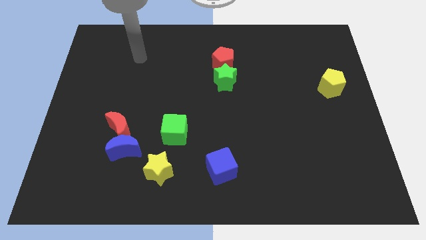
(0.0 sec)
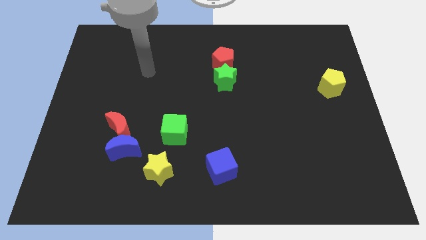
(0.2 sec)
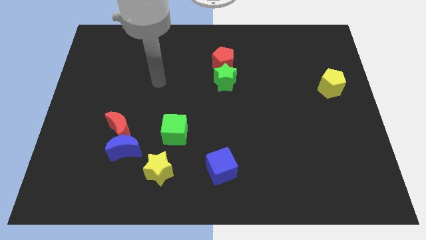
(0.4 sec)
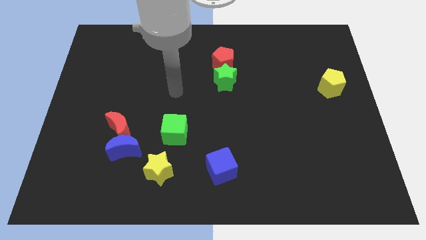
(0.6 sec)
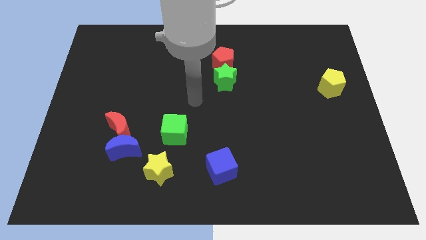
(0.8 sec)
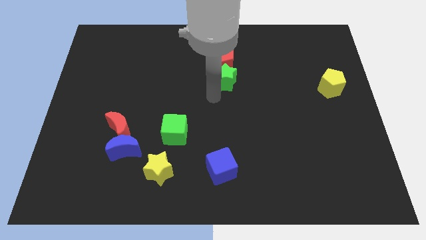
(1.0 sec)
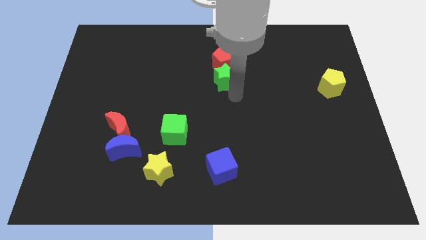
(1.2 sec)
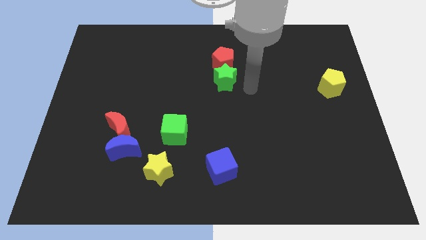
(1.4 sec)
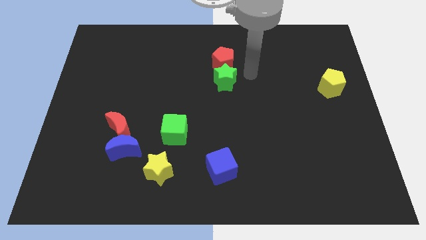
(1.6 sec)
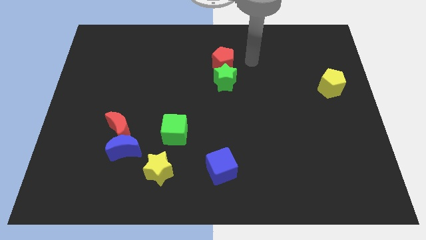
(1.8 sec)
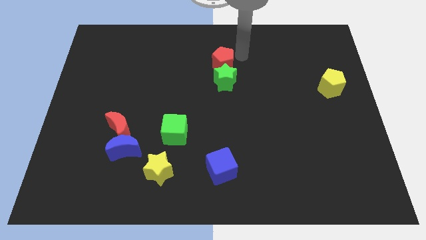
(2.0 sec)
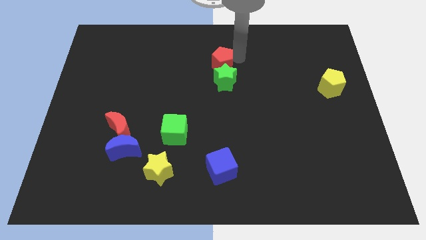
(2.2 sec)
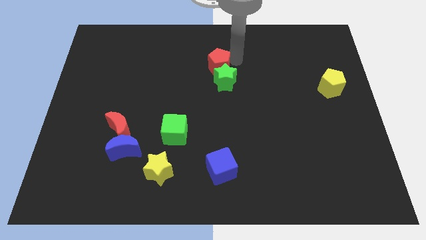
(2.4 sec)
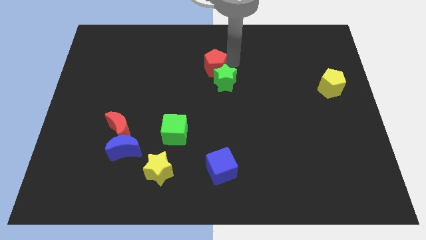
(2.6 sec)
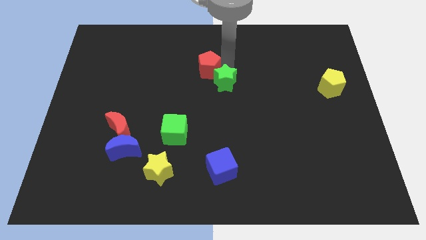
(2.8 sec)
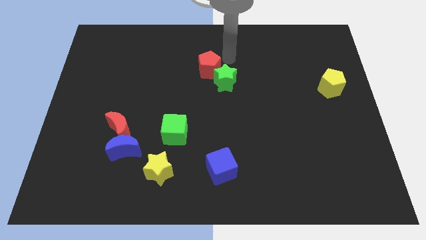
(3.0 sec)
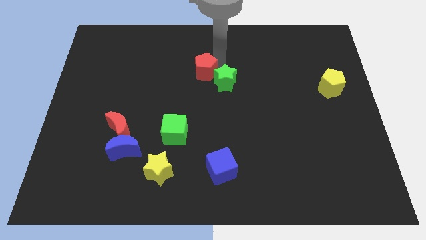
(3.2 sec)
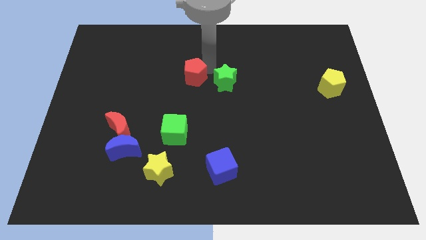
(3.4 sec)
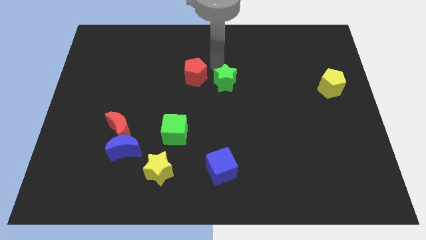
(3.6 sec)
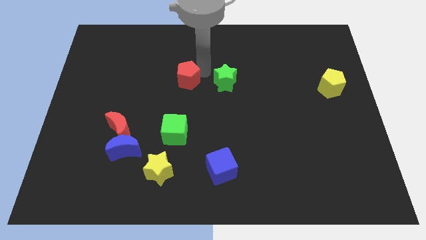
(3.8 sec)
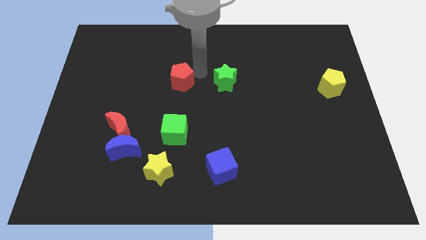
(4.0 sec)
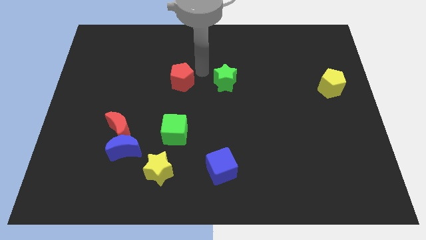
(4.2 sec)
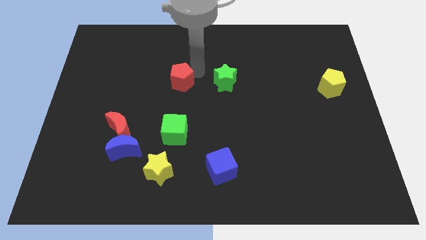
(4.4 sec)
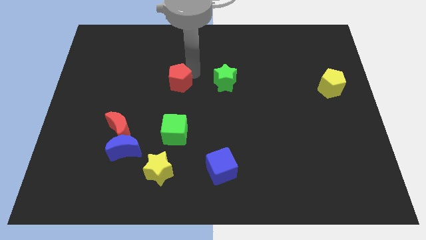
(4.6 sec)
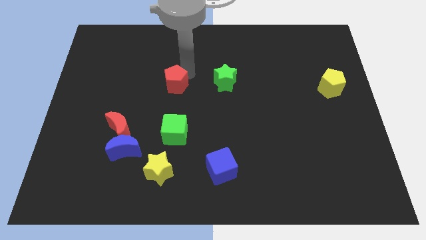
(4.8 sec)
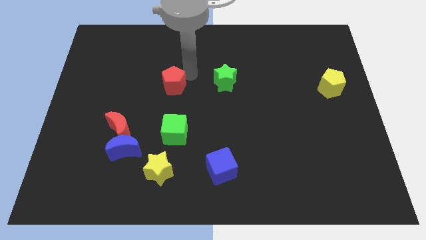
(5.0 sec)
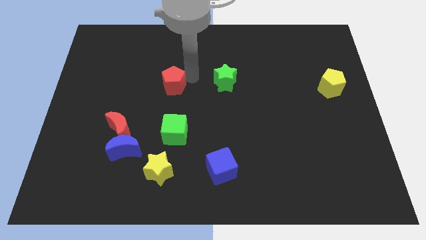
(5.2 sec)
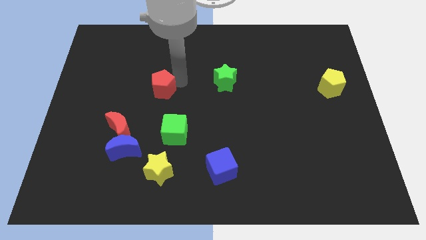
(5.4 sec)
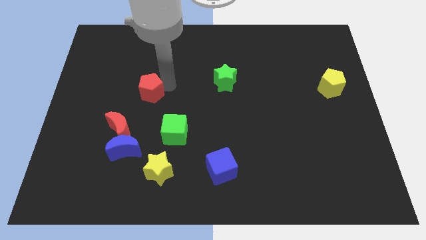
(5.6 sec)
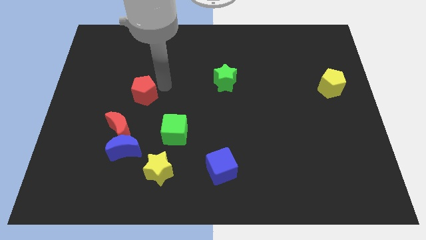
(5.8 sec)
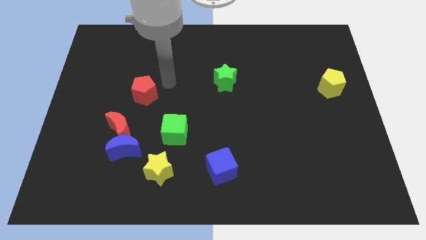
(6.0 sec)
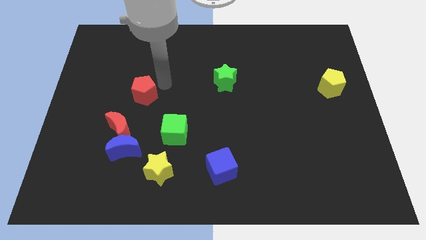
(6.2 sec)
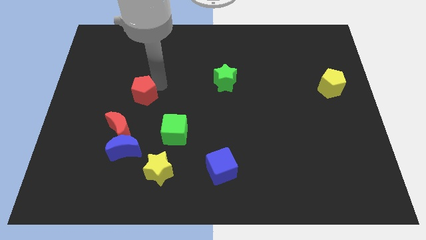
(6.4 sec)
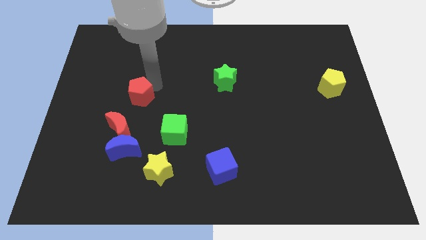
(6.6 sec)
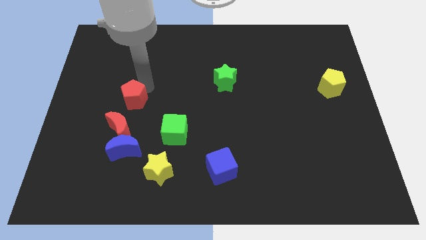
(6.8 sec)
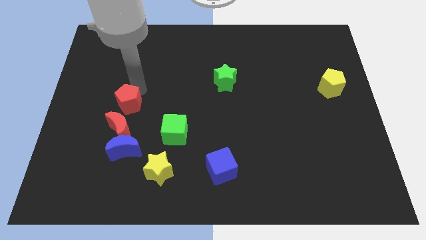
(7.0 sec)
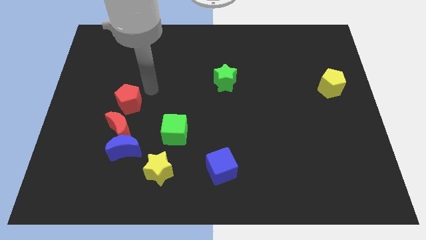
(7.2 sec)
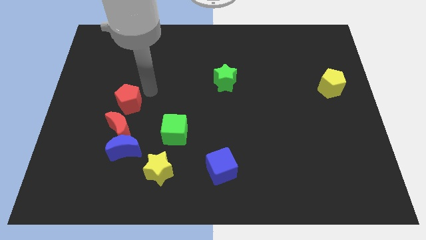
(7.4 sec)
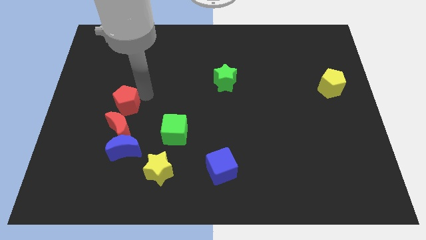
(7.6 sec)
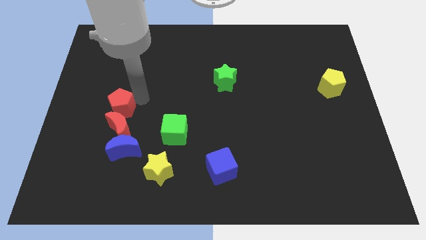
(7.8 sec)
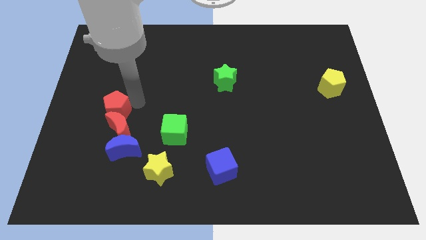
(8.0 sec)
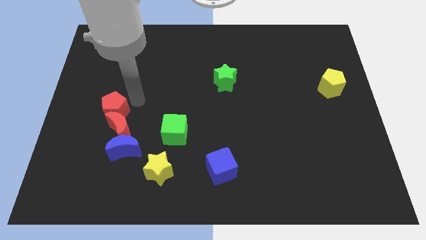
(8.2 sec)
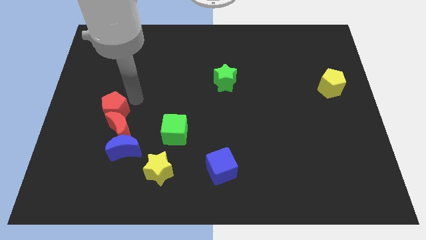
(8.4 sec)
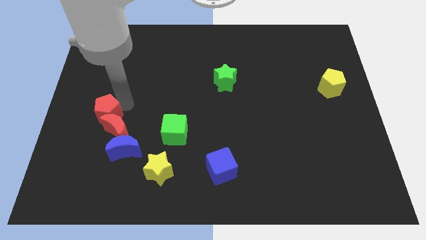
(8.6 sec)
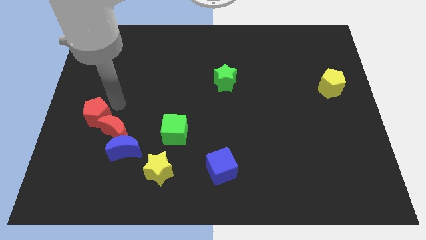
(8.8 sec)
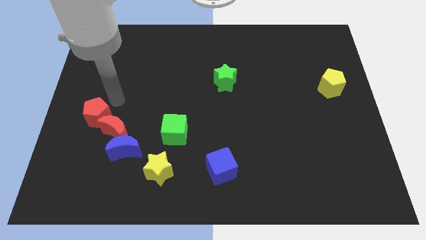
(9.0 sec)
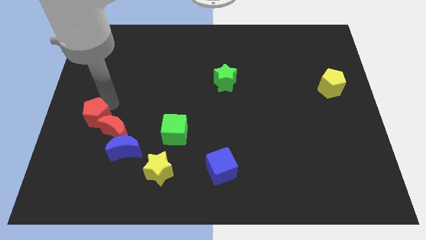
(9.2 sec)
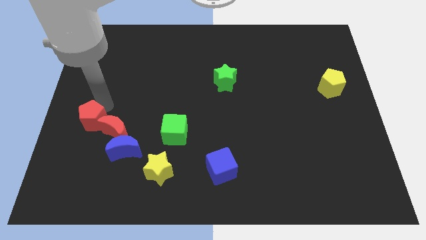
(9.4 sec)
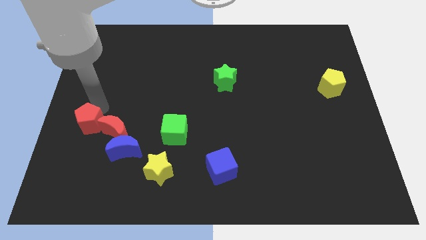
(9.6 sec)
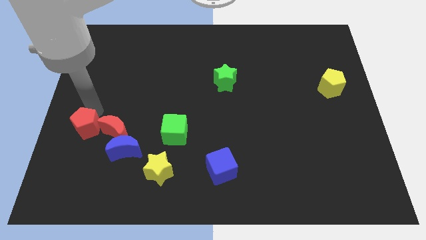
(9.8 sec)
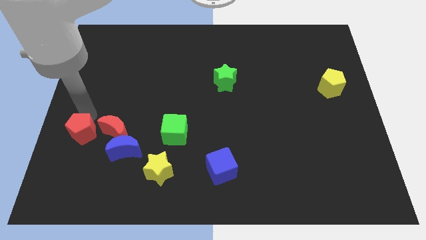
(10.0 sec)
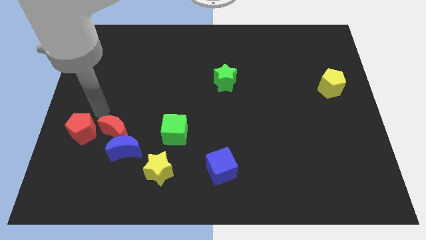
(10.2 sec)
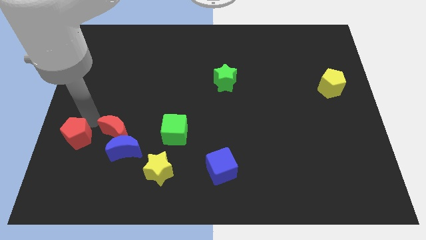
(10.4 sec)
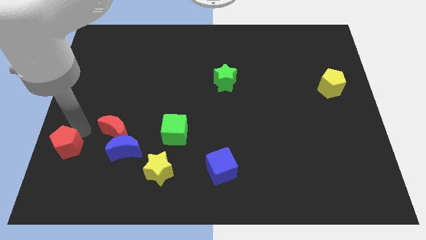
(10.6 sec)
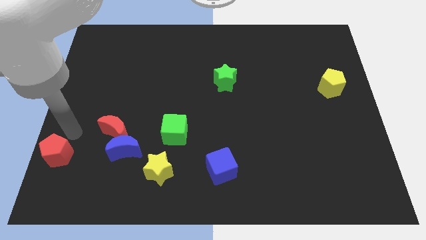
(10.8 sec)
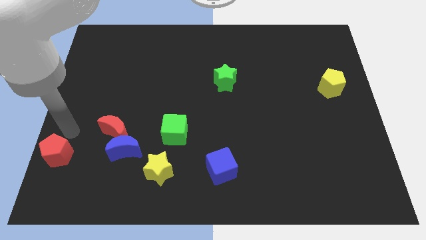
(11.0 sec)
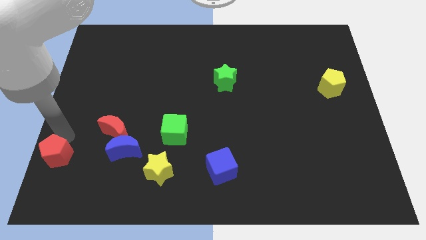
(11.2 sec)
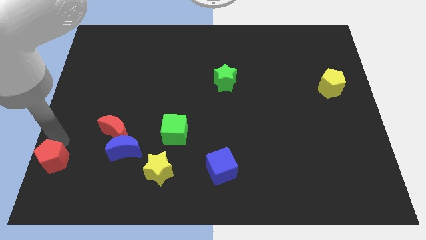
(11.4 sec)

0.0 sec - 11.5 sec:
put the red pentagon to the bottom left corner
